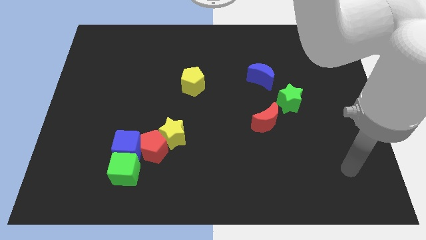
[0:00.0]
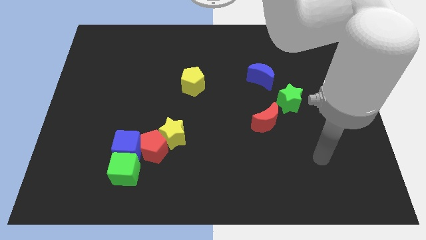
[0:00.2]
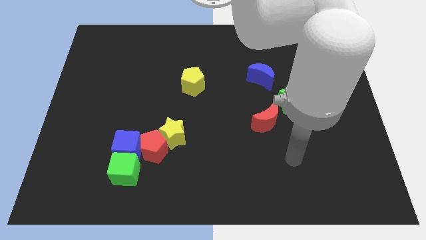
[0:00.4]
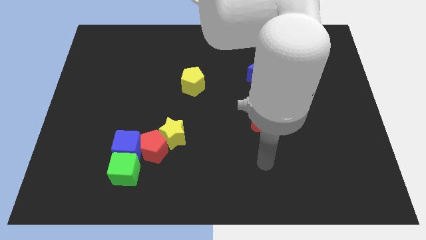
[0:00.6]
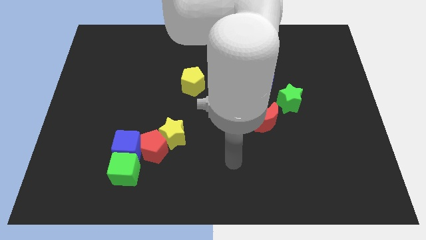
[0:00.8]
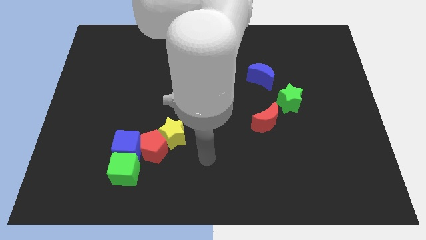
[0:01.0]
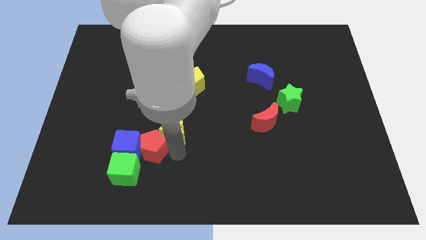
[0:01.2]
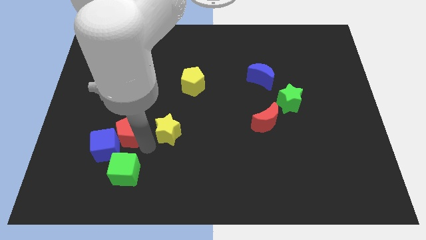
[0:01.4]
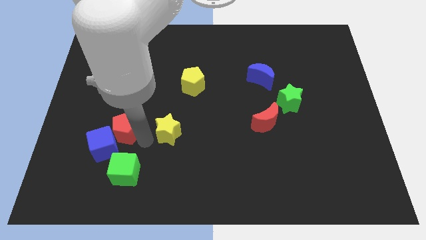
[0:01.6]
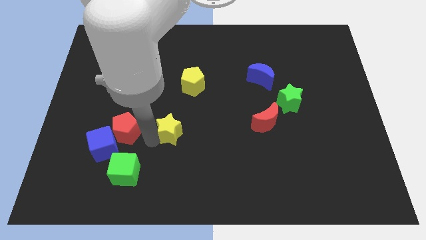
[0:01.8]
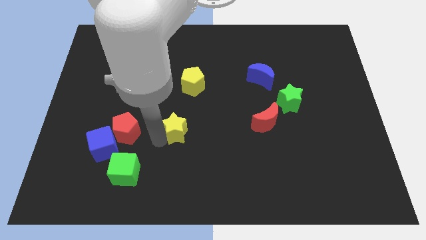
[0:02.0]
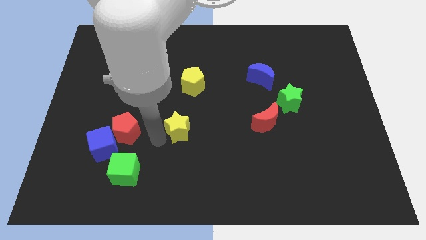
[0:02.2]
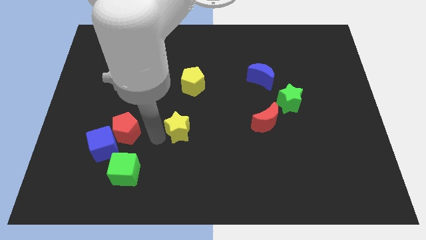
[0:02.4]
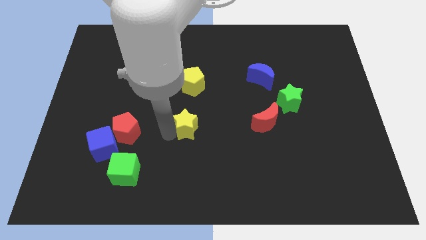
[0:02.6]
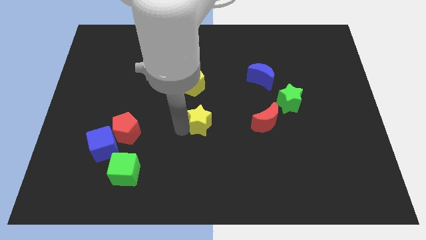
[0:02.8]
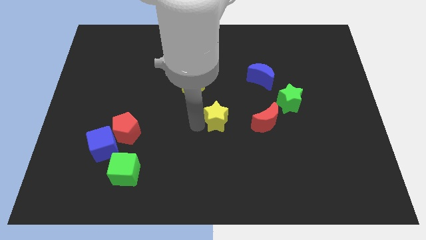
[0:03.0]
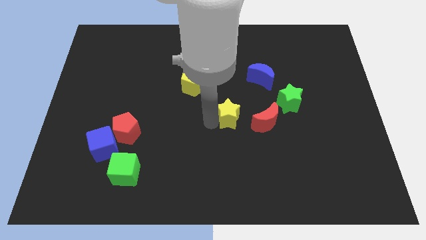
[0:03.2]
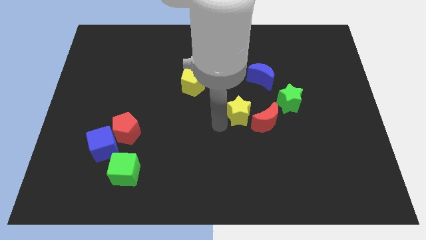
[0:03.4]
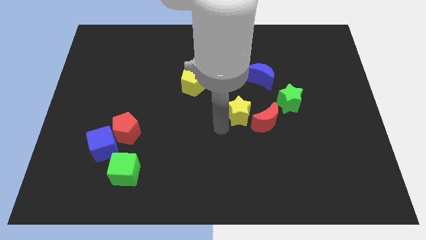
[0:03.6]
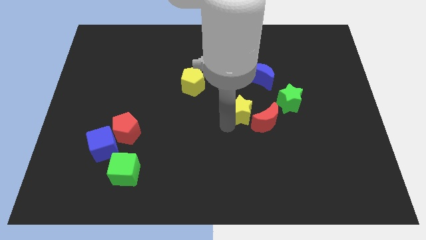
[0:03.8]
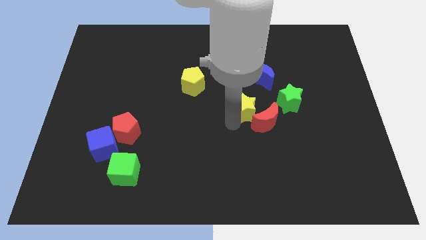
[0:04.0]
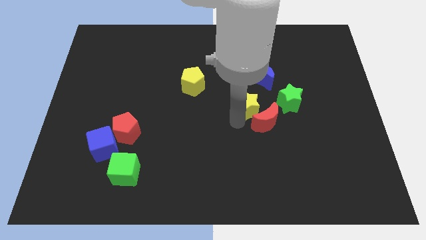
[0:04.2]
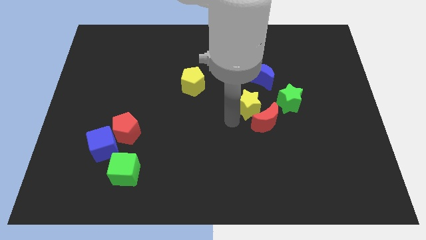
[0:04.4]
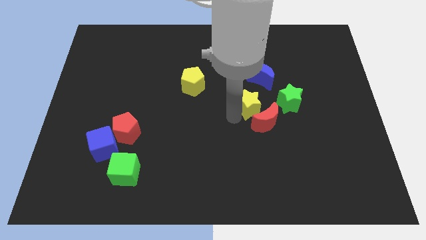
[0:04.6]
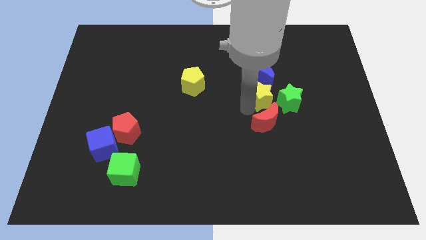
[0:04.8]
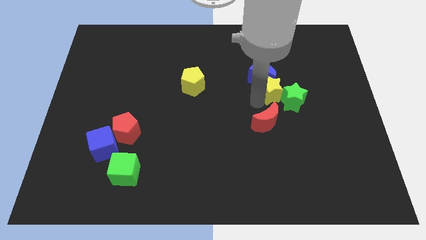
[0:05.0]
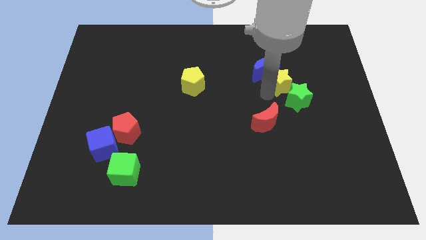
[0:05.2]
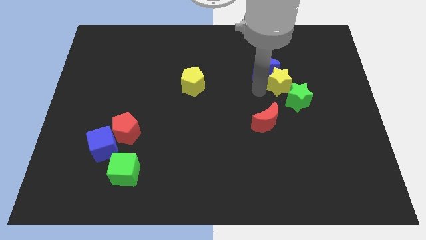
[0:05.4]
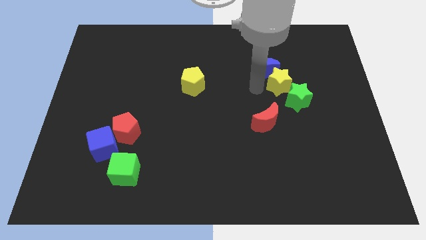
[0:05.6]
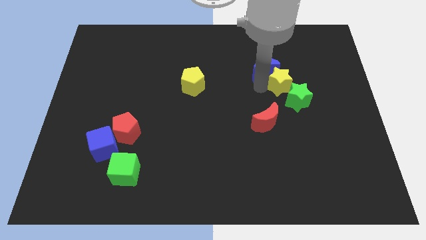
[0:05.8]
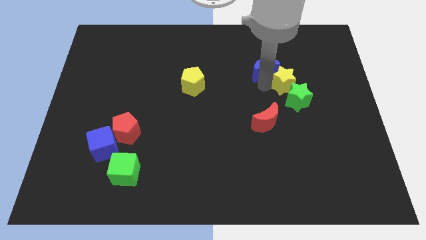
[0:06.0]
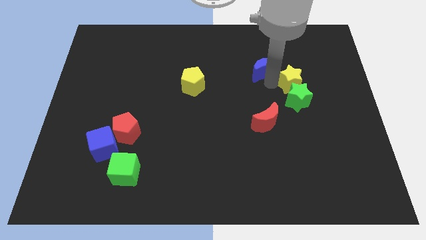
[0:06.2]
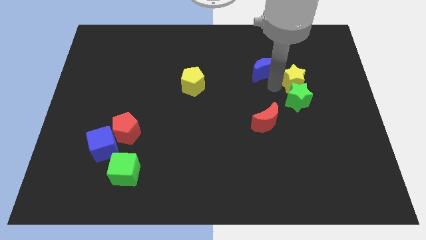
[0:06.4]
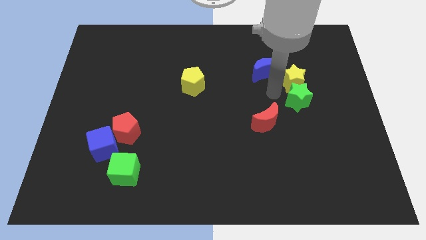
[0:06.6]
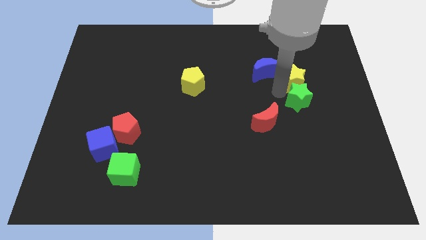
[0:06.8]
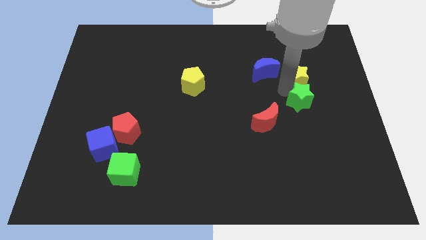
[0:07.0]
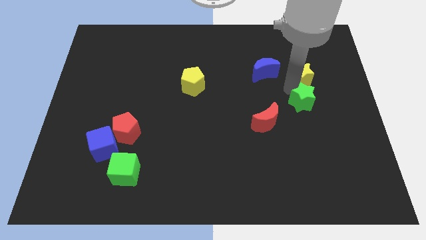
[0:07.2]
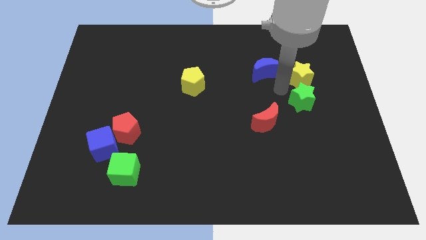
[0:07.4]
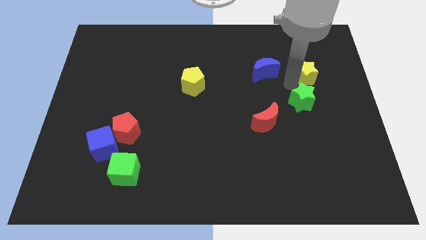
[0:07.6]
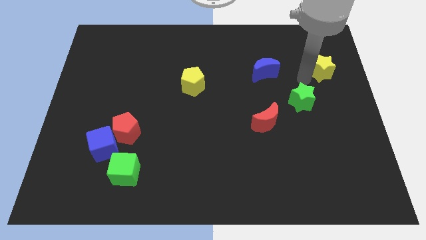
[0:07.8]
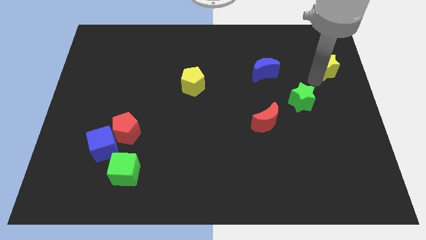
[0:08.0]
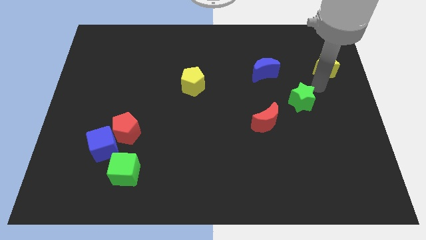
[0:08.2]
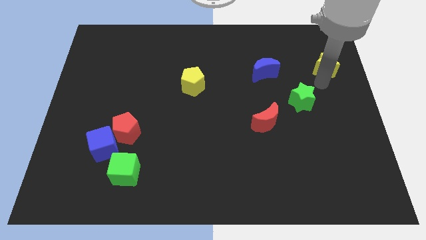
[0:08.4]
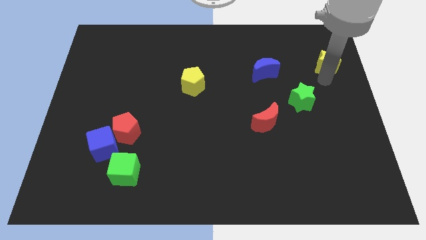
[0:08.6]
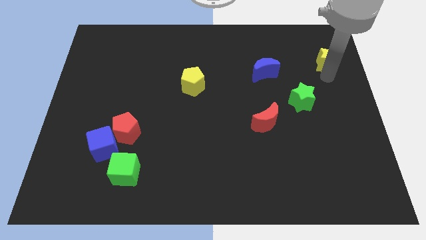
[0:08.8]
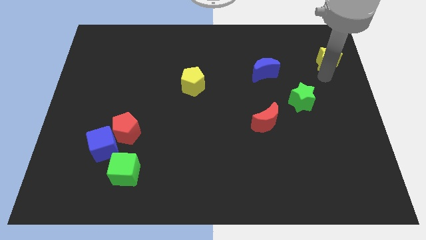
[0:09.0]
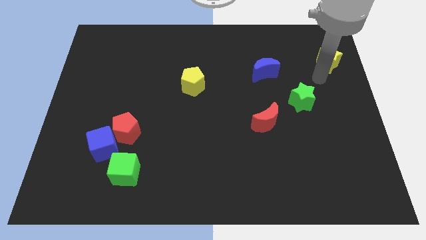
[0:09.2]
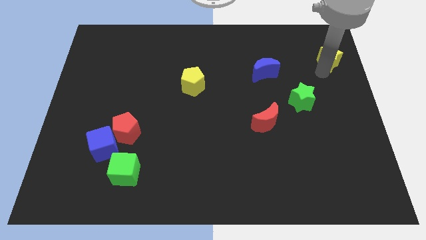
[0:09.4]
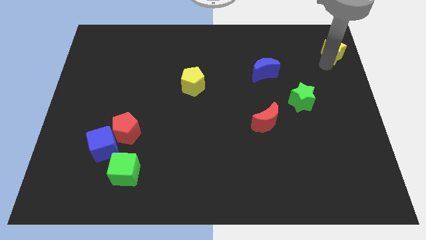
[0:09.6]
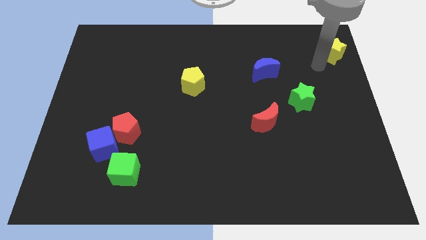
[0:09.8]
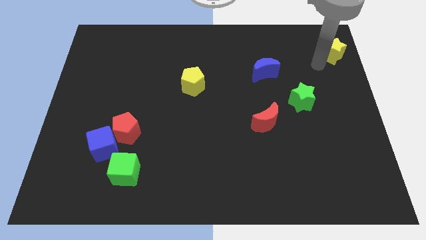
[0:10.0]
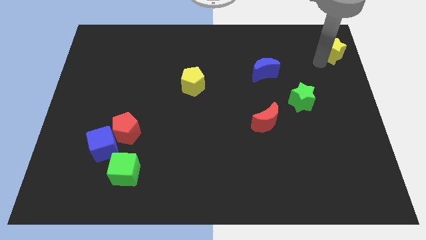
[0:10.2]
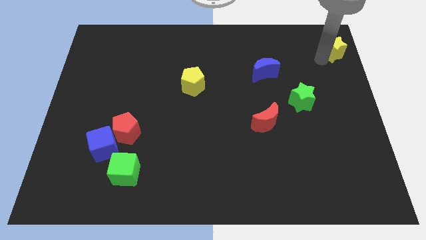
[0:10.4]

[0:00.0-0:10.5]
slide the yellow star to the top right corner

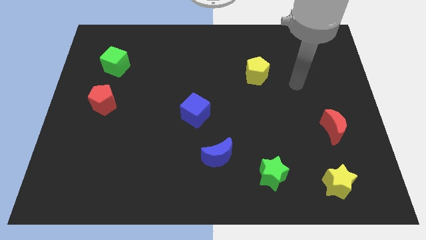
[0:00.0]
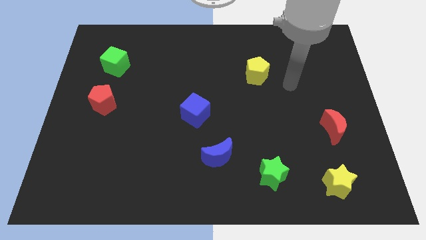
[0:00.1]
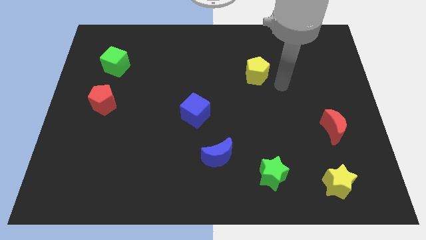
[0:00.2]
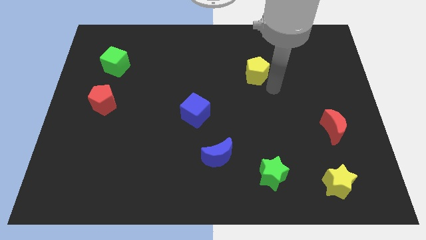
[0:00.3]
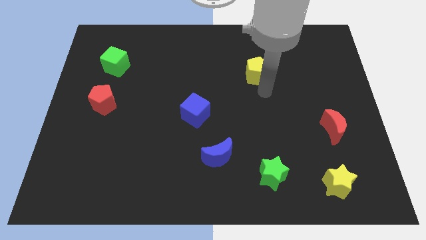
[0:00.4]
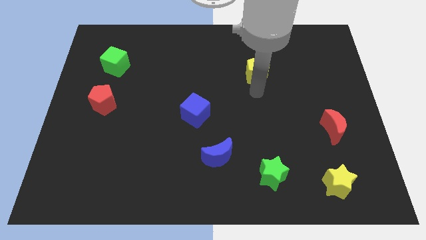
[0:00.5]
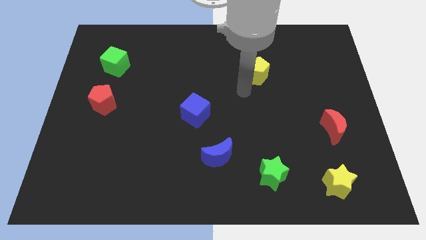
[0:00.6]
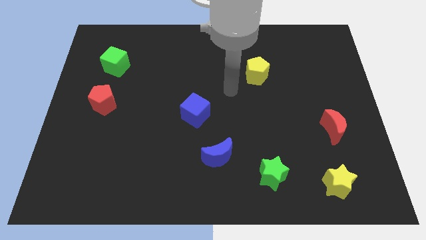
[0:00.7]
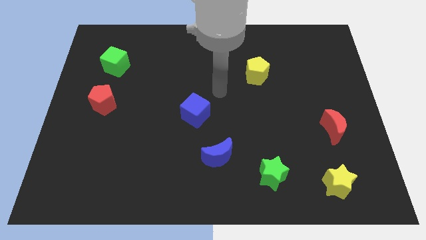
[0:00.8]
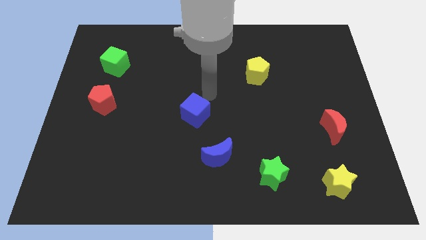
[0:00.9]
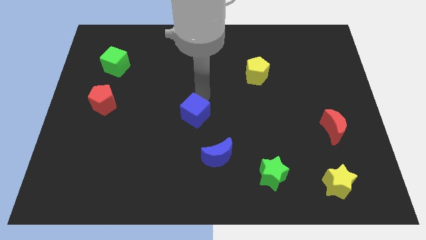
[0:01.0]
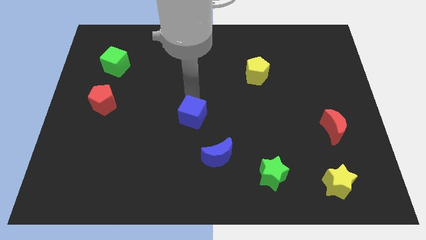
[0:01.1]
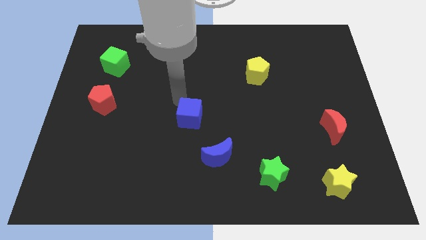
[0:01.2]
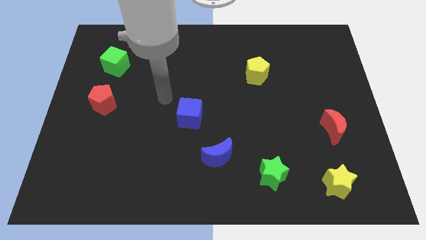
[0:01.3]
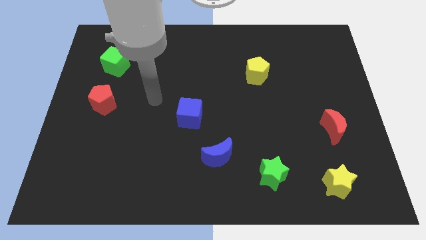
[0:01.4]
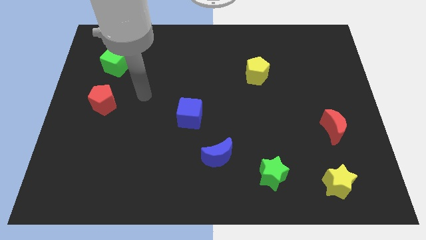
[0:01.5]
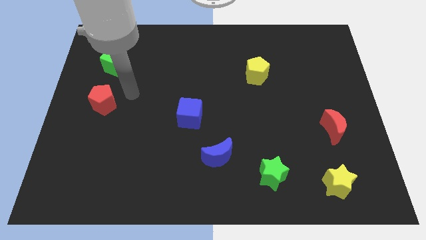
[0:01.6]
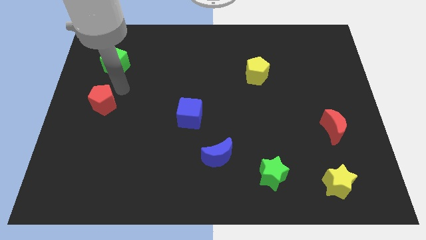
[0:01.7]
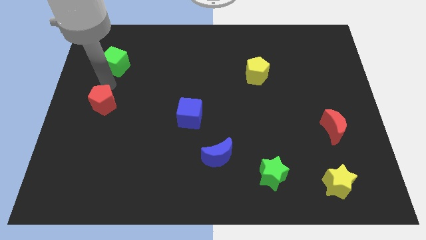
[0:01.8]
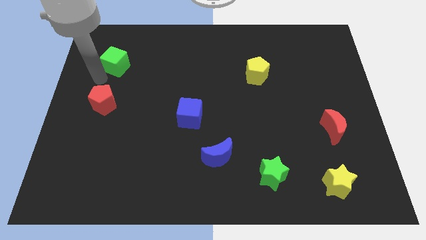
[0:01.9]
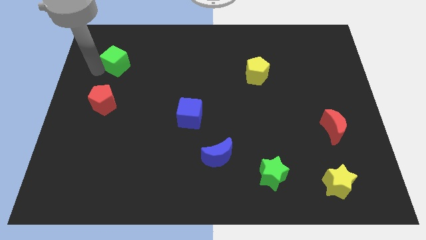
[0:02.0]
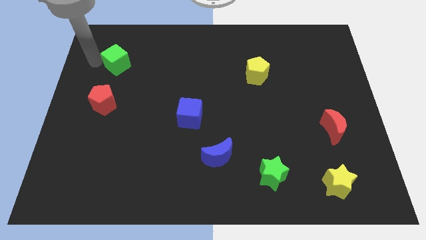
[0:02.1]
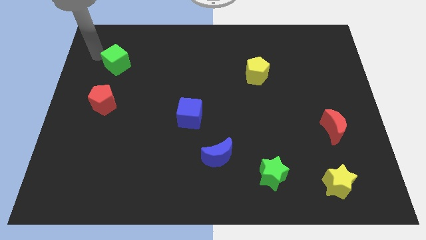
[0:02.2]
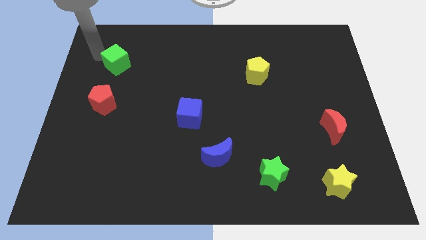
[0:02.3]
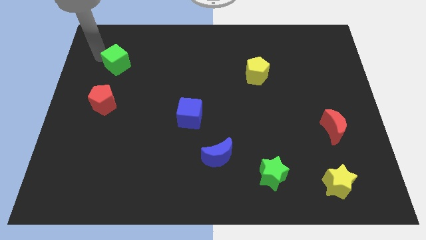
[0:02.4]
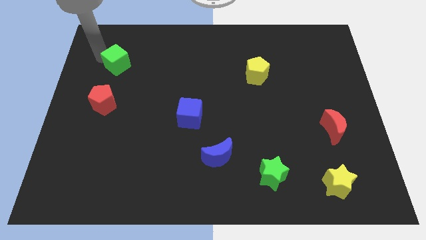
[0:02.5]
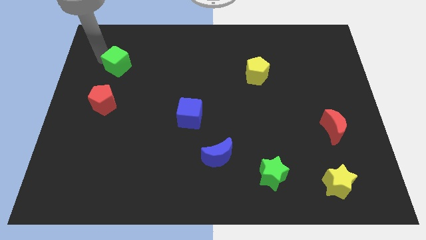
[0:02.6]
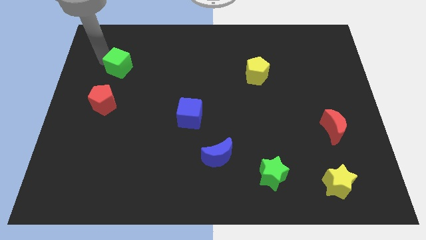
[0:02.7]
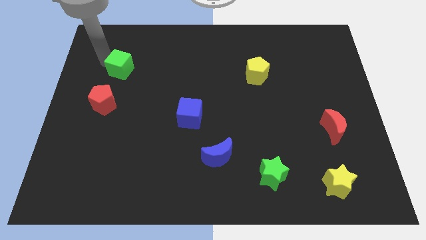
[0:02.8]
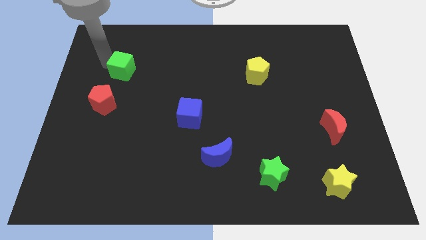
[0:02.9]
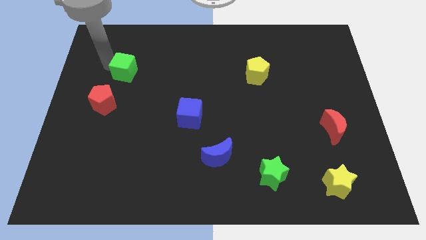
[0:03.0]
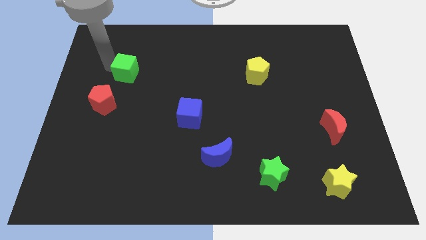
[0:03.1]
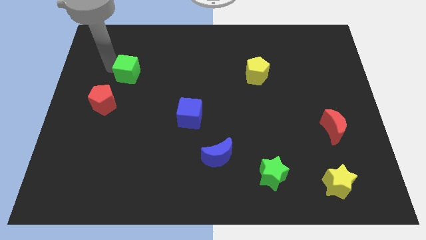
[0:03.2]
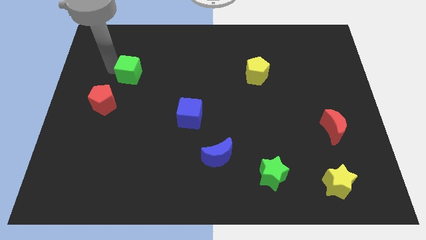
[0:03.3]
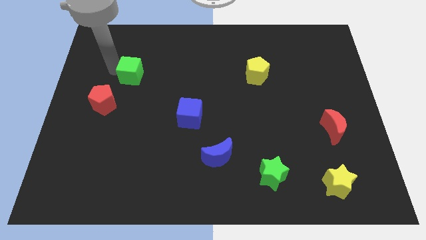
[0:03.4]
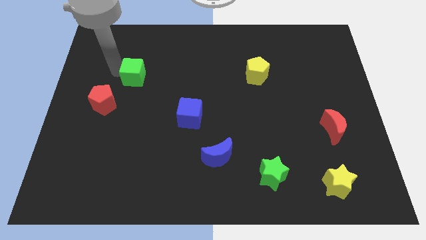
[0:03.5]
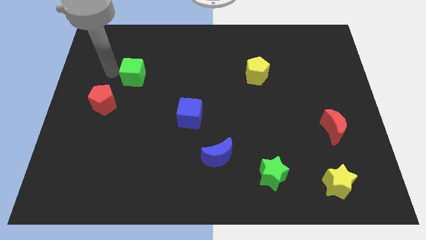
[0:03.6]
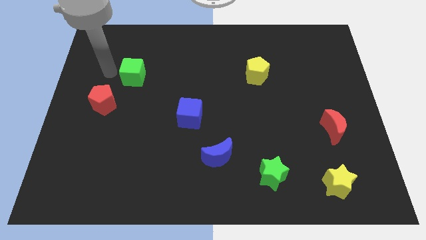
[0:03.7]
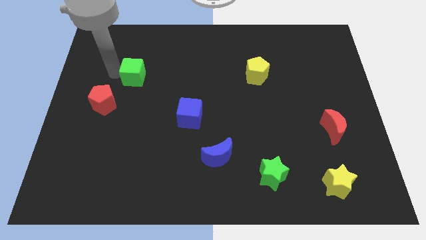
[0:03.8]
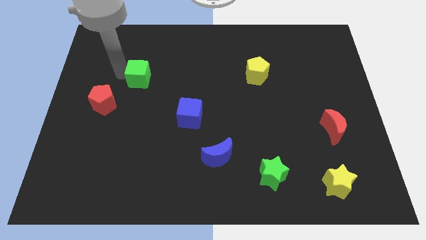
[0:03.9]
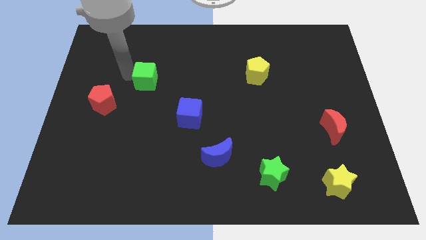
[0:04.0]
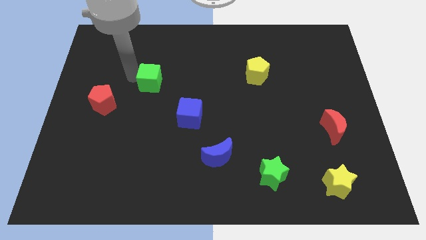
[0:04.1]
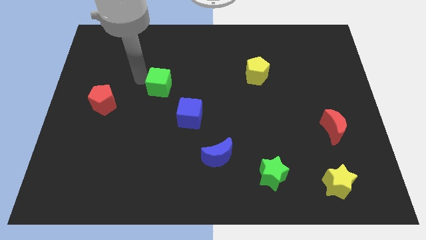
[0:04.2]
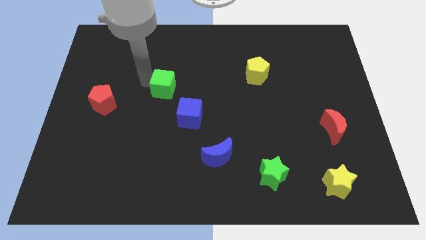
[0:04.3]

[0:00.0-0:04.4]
push the green cube to the center of the board
